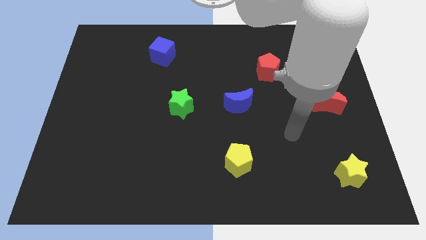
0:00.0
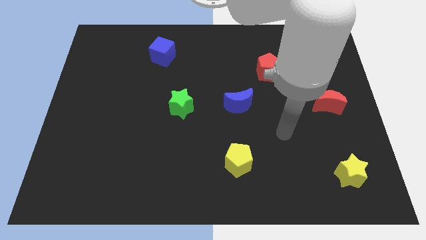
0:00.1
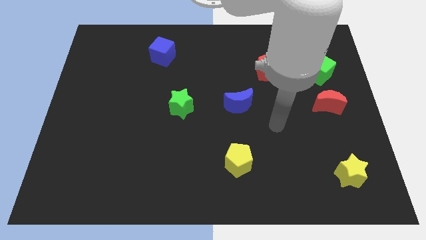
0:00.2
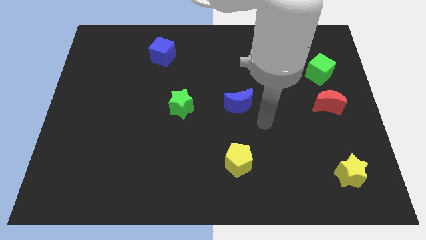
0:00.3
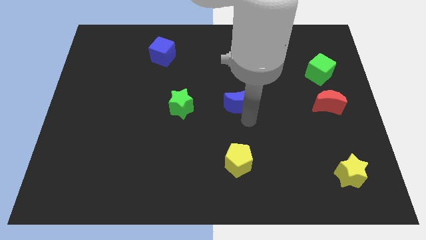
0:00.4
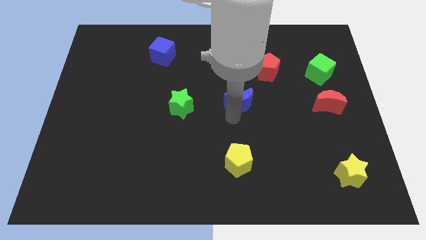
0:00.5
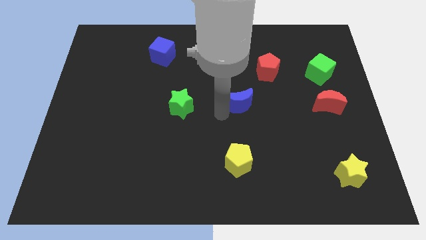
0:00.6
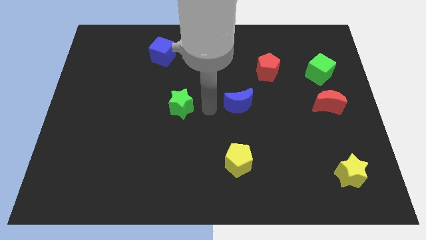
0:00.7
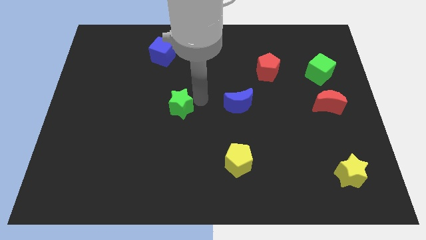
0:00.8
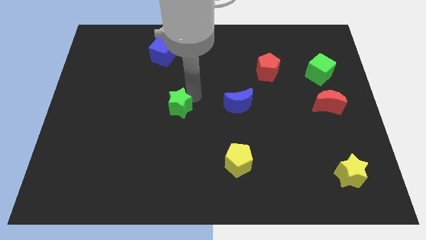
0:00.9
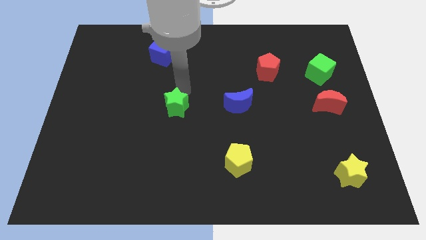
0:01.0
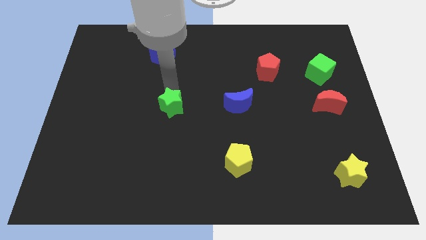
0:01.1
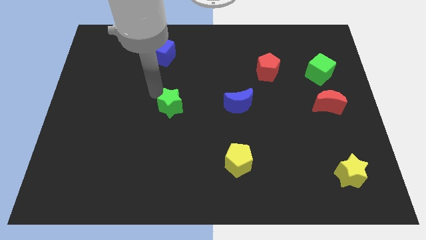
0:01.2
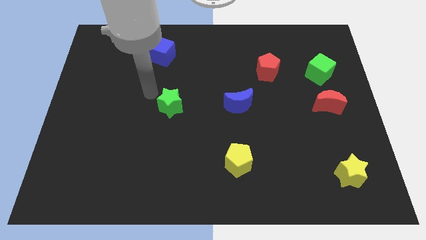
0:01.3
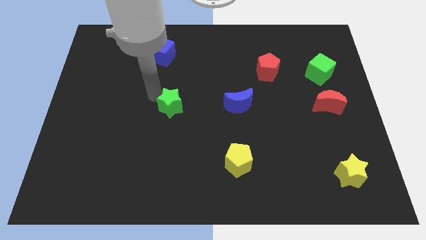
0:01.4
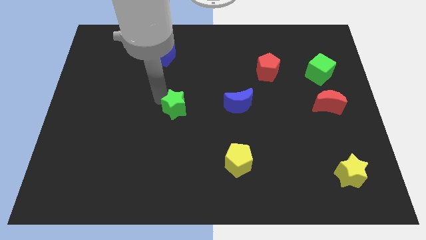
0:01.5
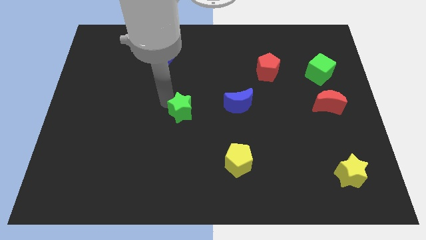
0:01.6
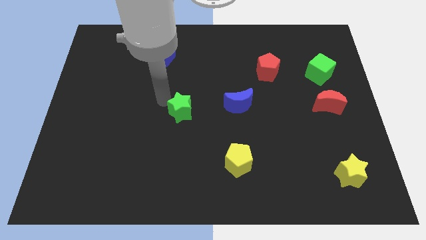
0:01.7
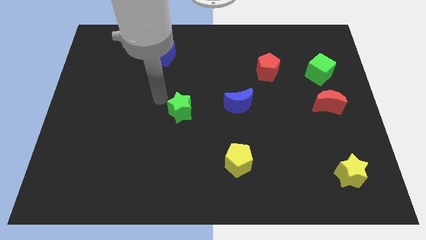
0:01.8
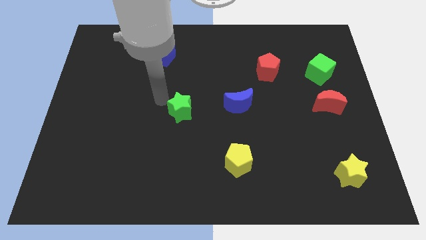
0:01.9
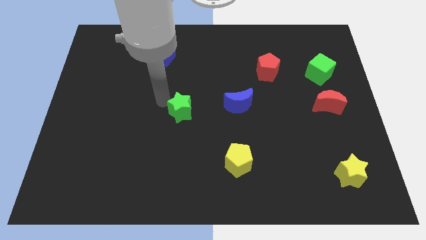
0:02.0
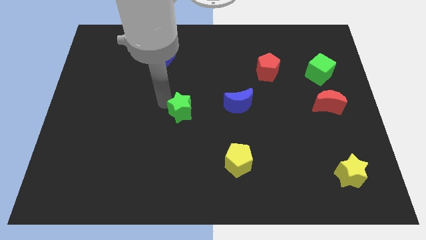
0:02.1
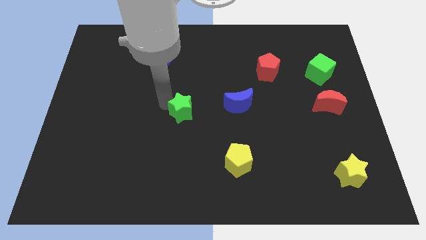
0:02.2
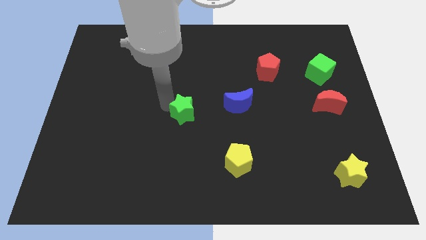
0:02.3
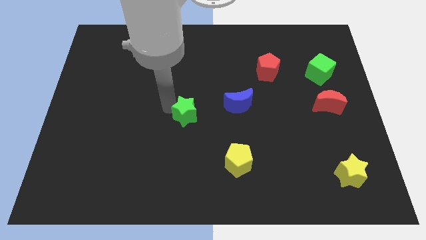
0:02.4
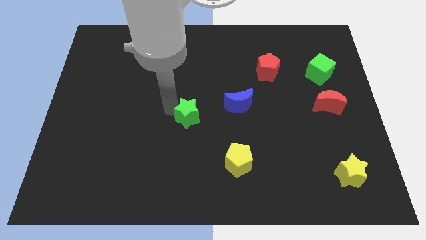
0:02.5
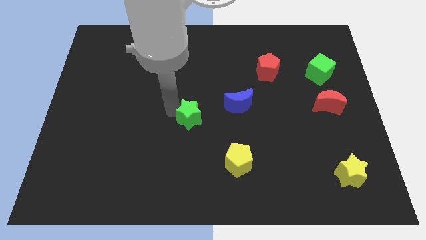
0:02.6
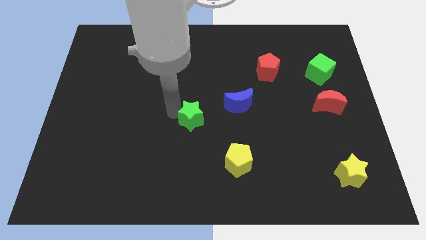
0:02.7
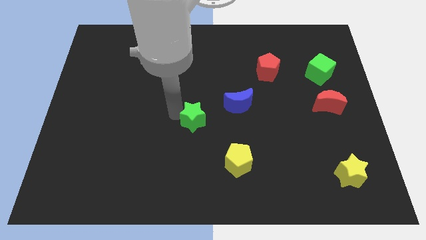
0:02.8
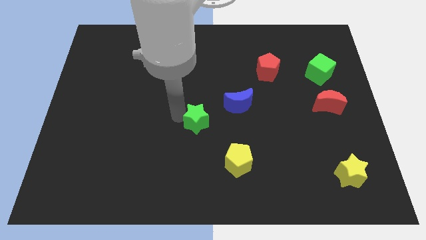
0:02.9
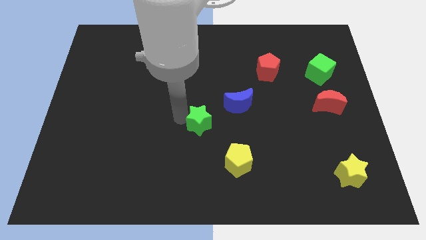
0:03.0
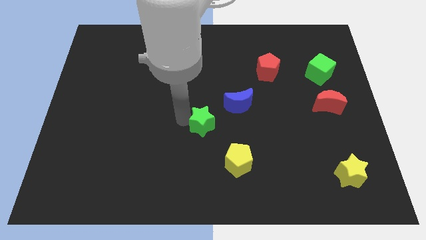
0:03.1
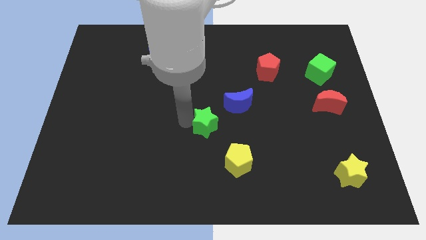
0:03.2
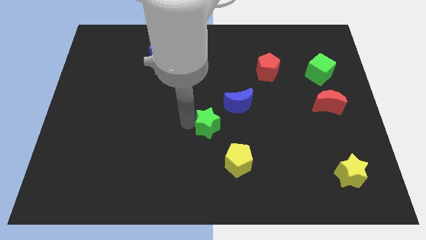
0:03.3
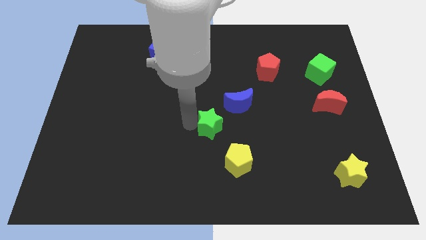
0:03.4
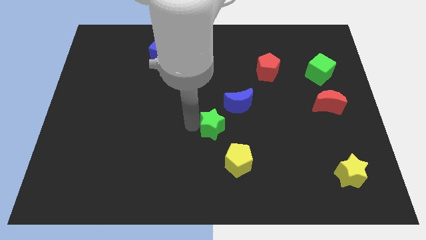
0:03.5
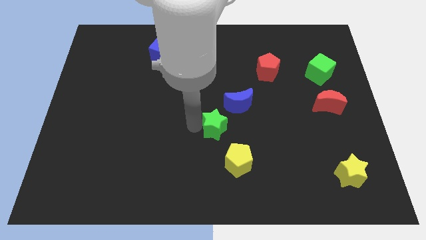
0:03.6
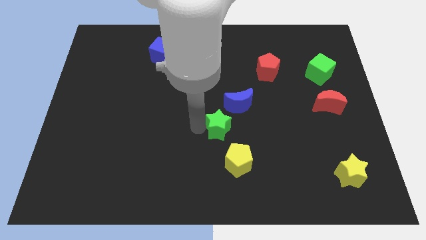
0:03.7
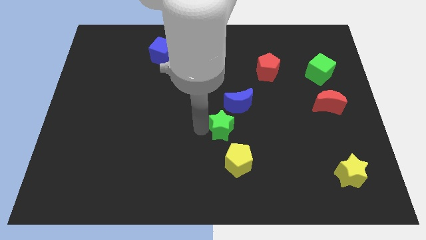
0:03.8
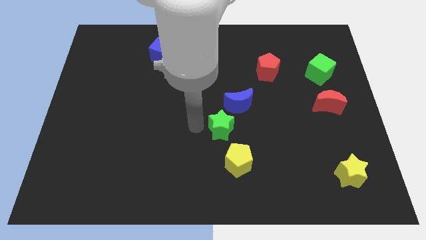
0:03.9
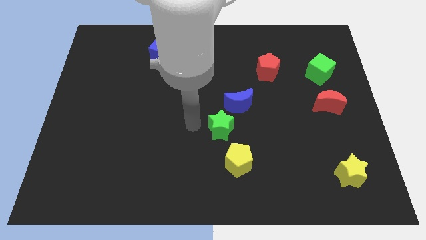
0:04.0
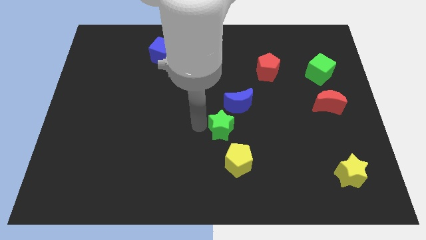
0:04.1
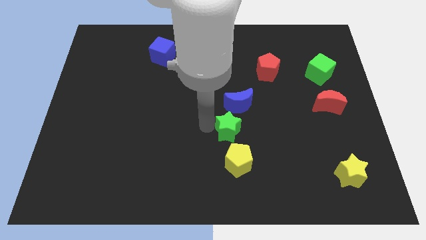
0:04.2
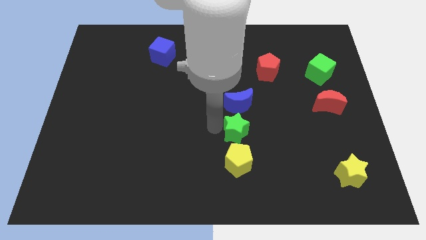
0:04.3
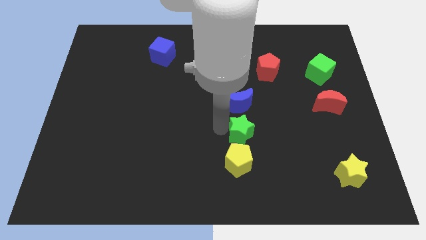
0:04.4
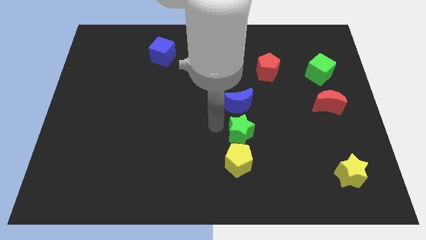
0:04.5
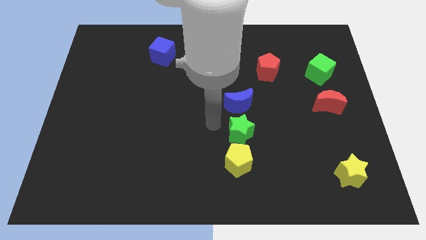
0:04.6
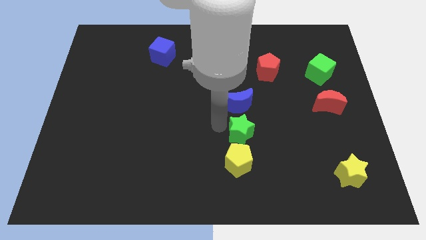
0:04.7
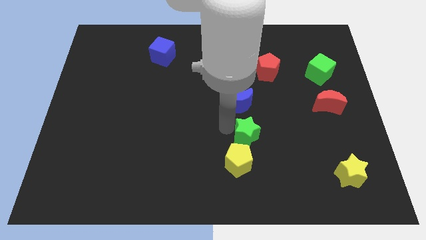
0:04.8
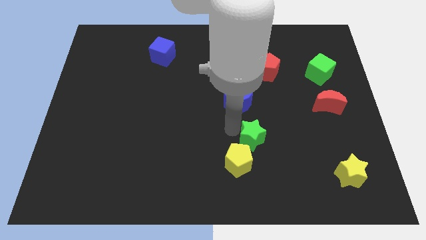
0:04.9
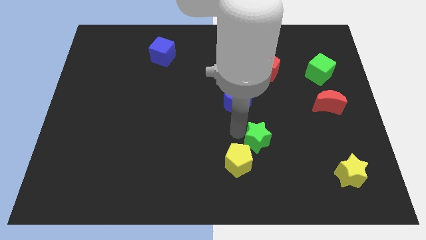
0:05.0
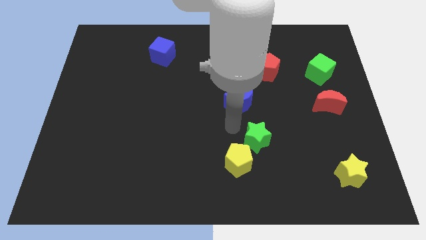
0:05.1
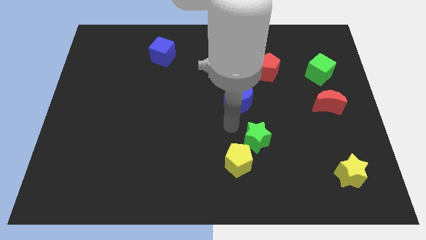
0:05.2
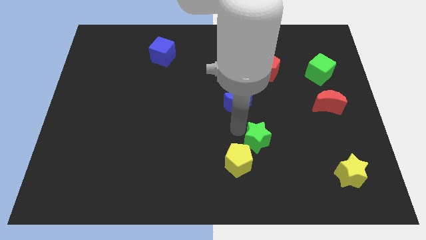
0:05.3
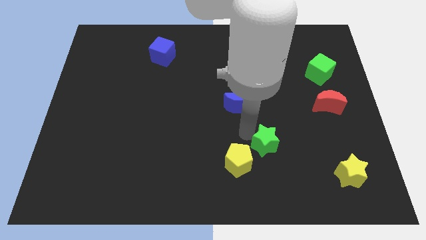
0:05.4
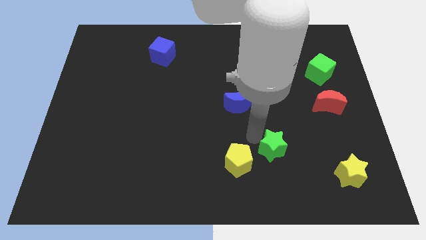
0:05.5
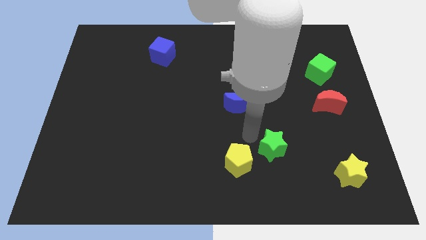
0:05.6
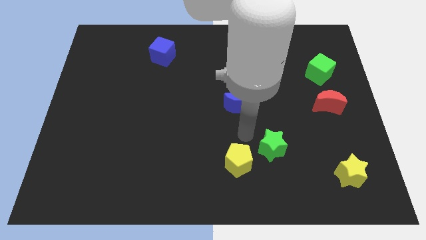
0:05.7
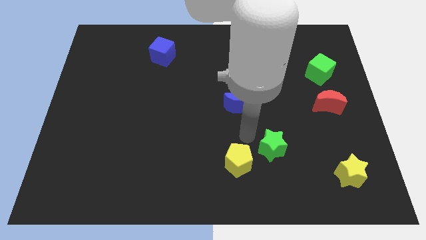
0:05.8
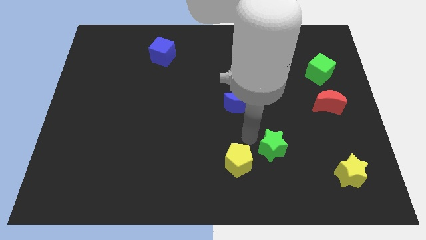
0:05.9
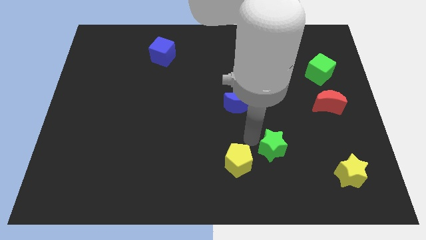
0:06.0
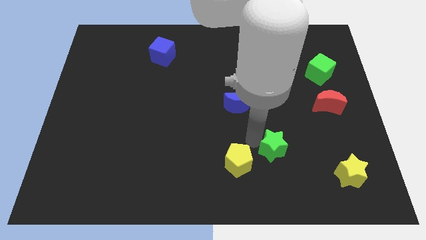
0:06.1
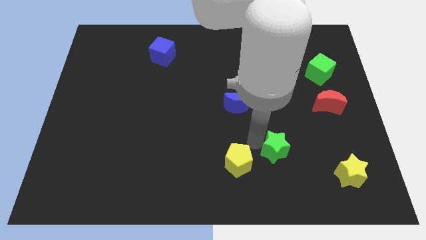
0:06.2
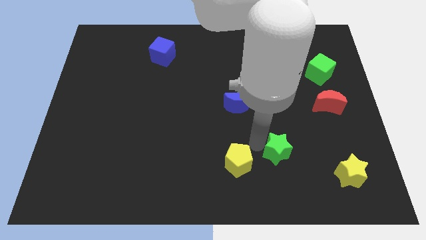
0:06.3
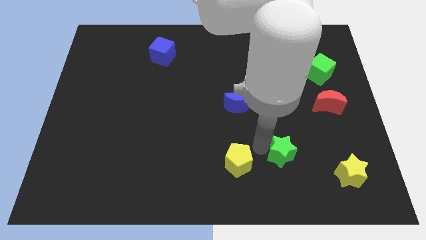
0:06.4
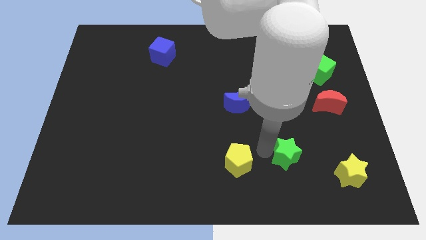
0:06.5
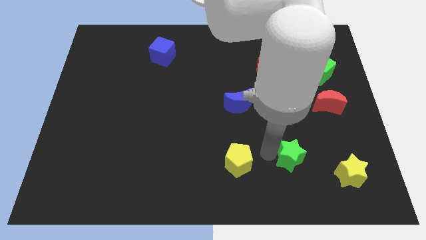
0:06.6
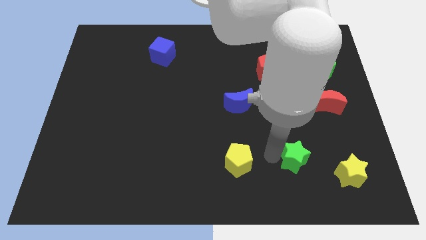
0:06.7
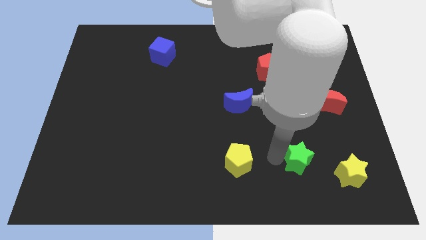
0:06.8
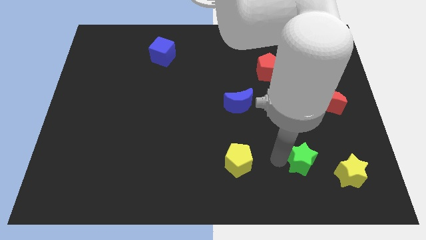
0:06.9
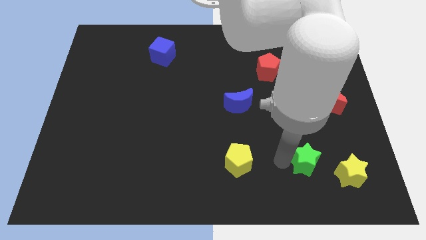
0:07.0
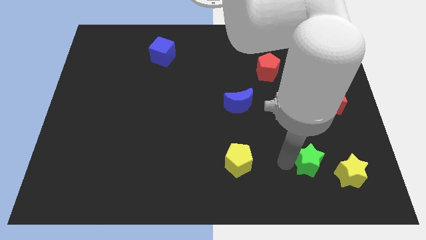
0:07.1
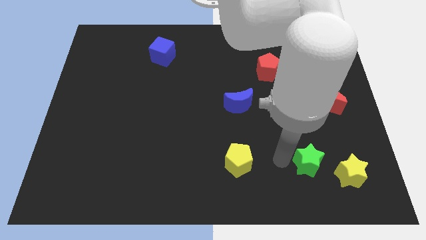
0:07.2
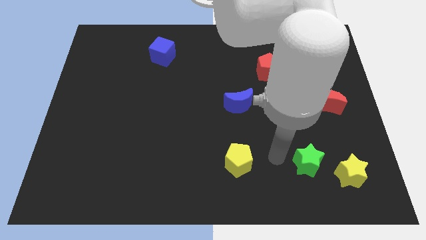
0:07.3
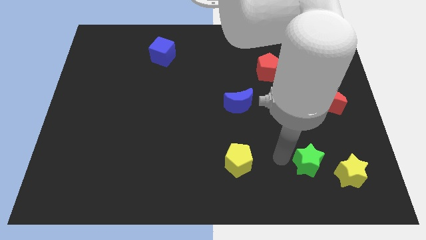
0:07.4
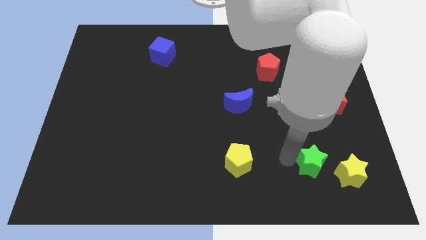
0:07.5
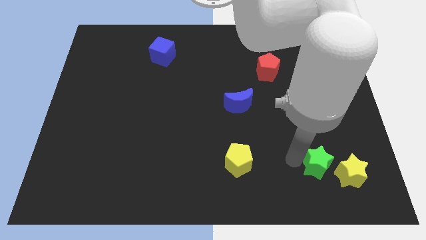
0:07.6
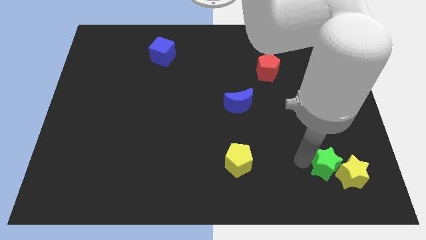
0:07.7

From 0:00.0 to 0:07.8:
push the green star towards the yellow star
